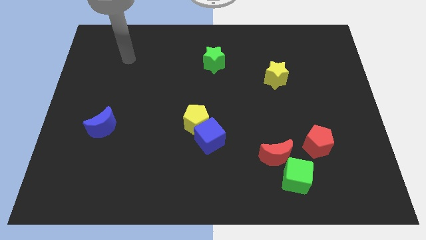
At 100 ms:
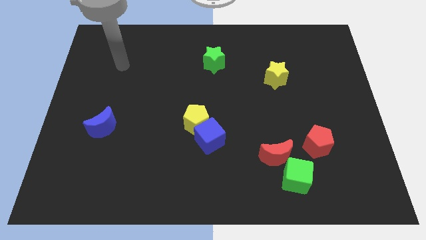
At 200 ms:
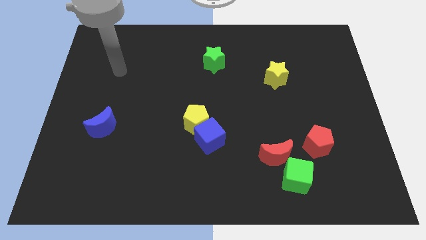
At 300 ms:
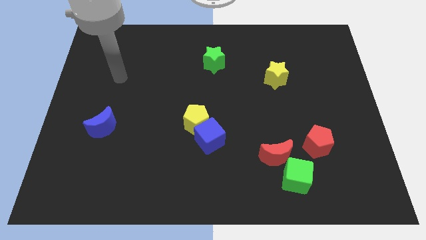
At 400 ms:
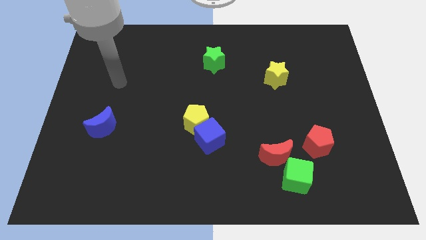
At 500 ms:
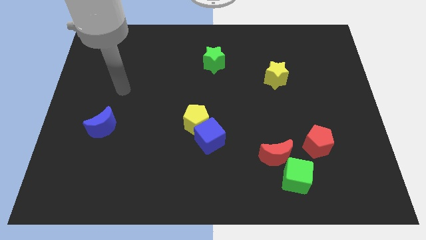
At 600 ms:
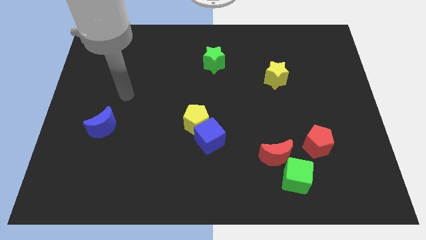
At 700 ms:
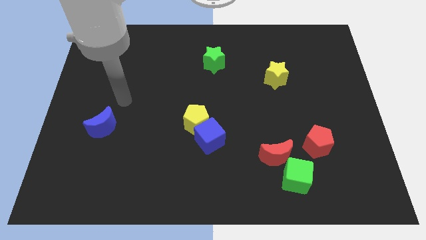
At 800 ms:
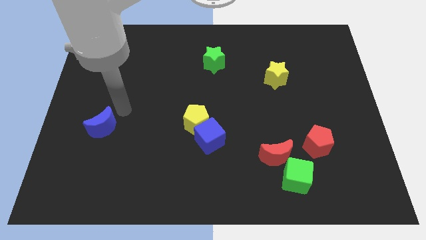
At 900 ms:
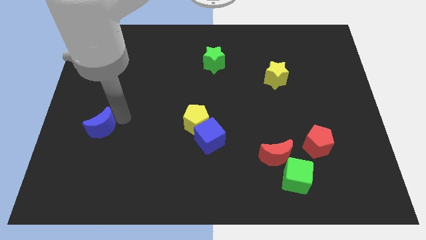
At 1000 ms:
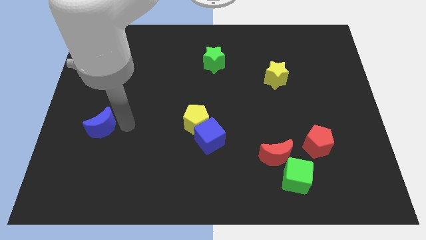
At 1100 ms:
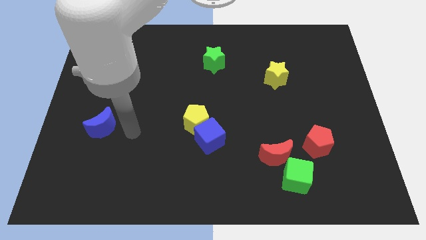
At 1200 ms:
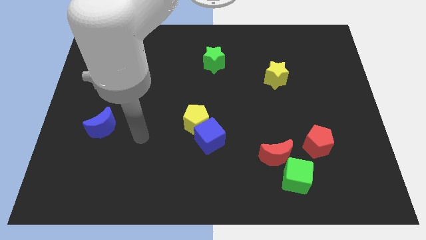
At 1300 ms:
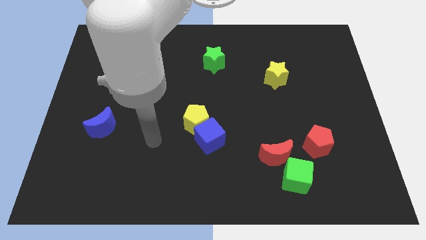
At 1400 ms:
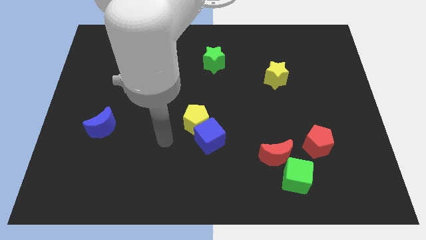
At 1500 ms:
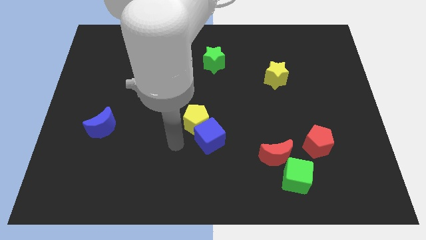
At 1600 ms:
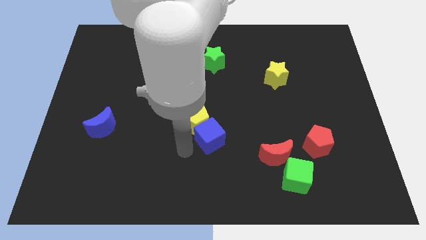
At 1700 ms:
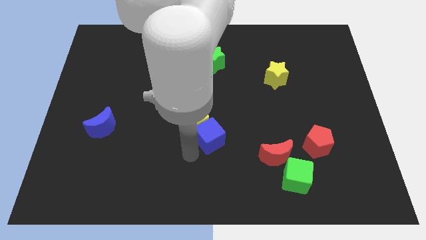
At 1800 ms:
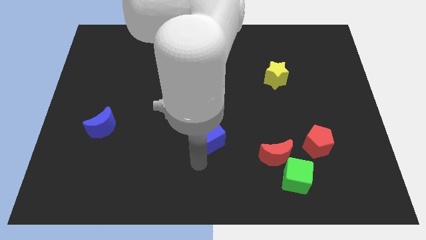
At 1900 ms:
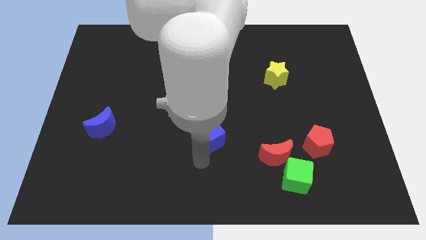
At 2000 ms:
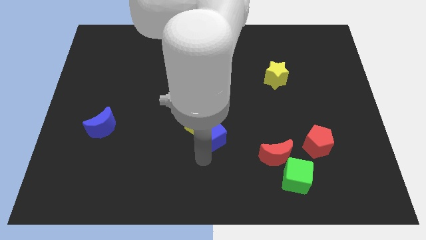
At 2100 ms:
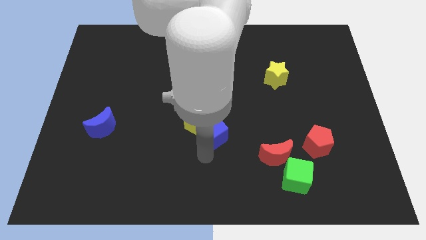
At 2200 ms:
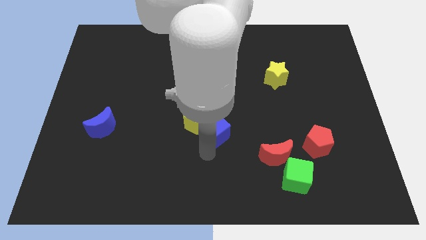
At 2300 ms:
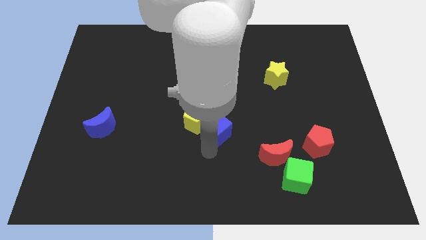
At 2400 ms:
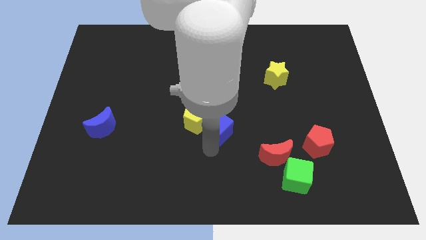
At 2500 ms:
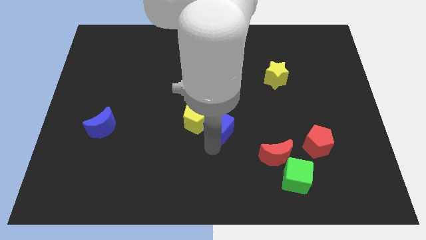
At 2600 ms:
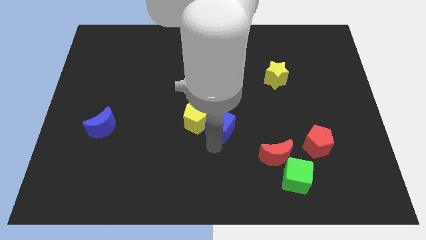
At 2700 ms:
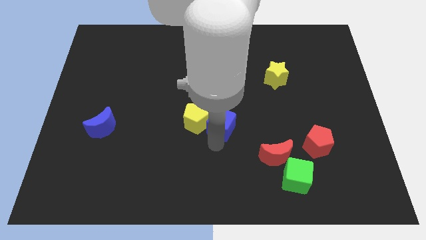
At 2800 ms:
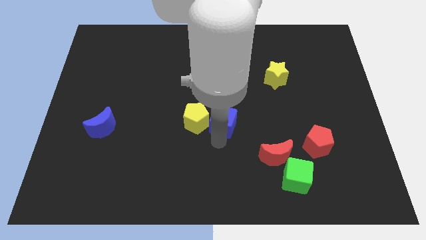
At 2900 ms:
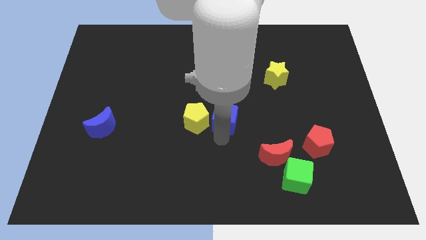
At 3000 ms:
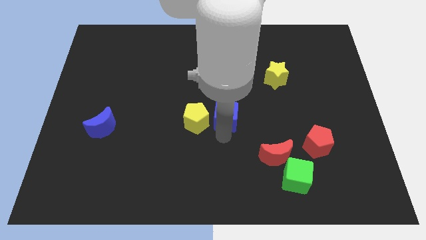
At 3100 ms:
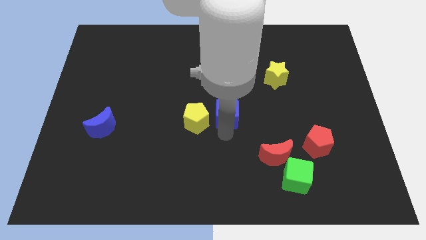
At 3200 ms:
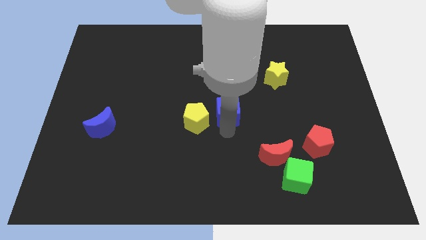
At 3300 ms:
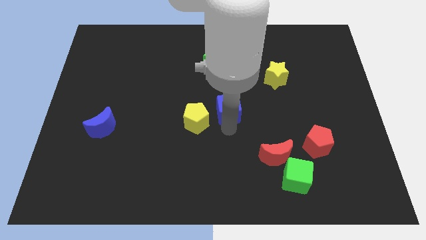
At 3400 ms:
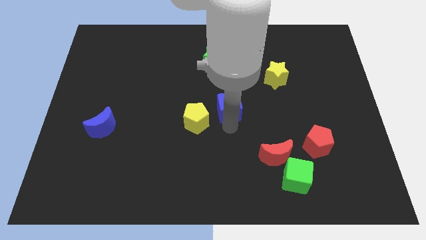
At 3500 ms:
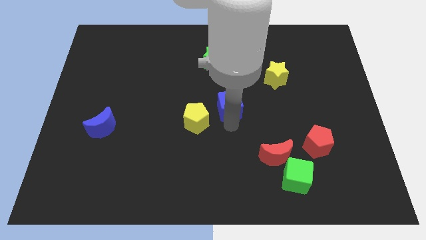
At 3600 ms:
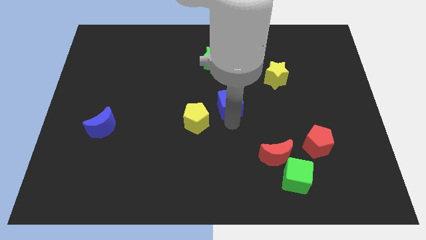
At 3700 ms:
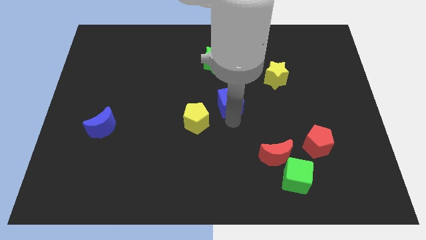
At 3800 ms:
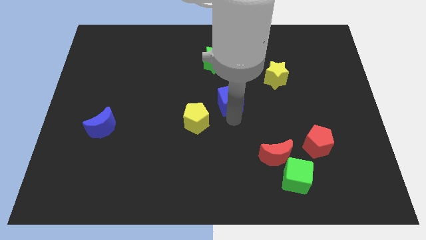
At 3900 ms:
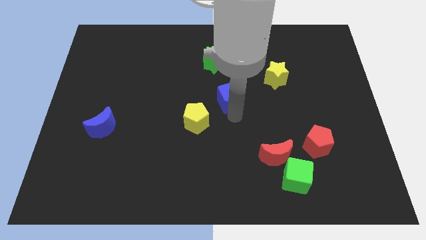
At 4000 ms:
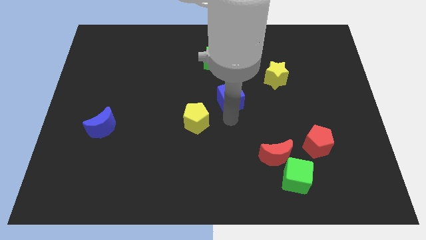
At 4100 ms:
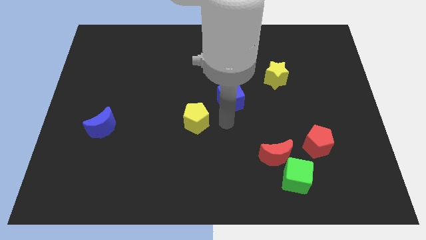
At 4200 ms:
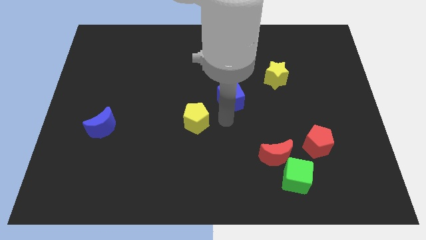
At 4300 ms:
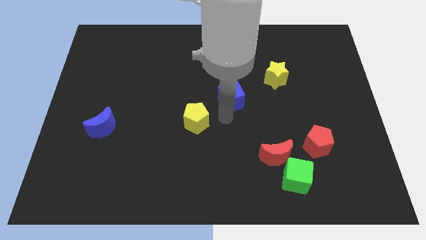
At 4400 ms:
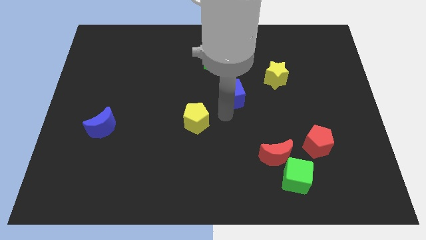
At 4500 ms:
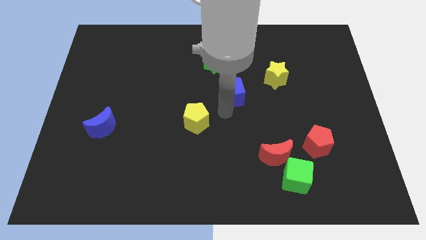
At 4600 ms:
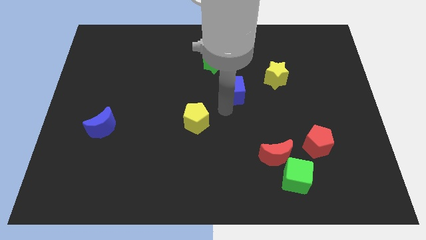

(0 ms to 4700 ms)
slide the blue cube just left of the yellow star

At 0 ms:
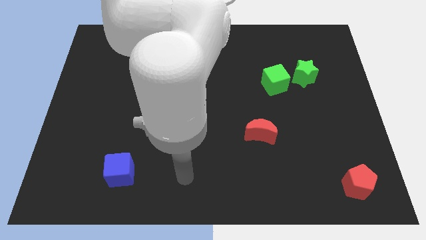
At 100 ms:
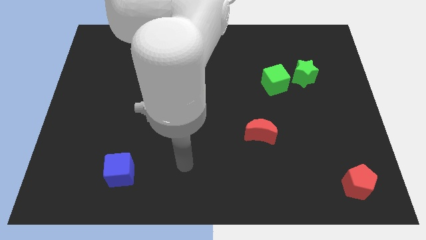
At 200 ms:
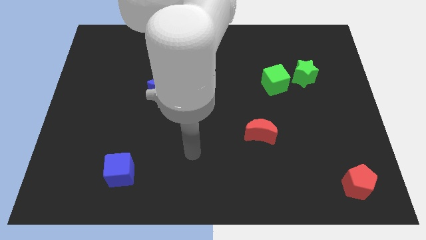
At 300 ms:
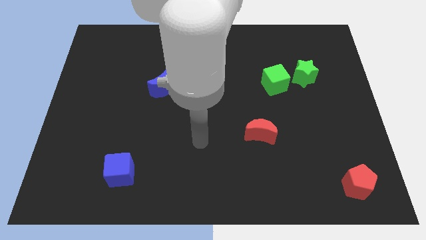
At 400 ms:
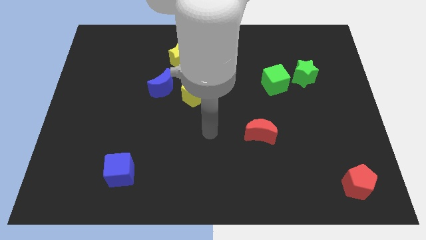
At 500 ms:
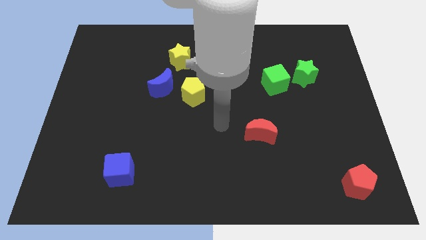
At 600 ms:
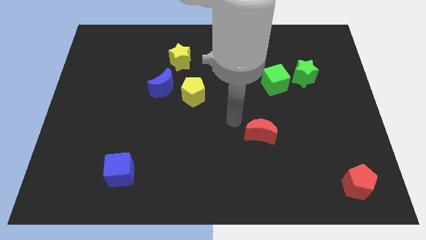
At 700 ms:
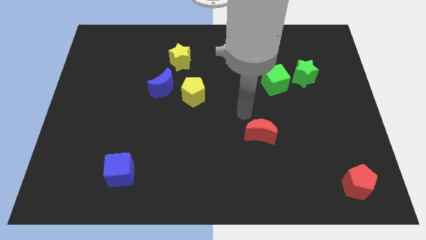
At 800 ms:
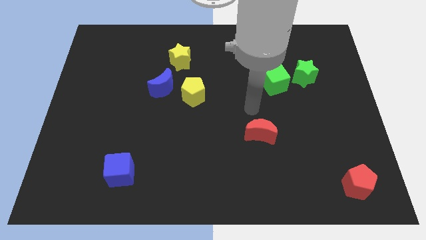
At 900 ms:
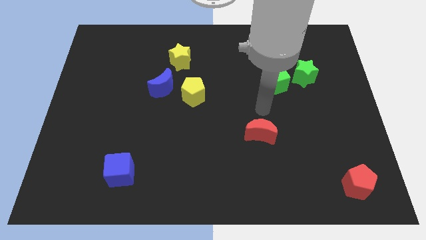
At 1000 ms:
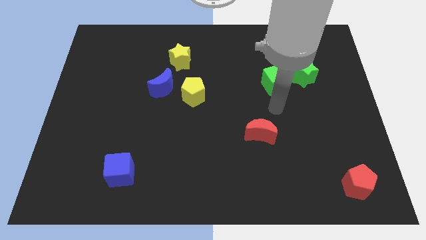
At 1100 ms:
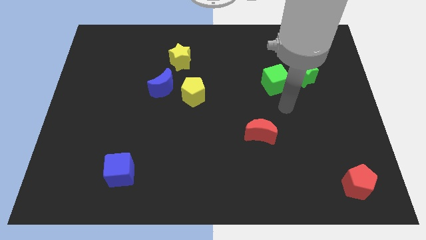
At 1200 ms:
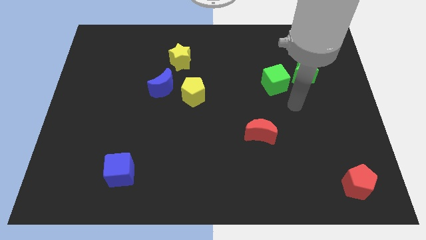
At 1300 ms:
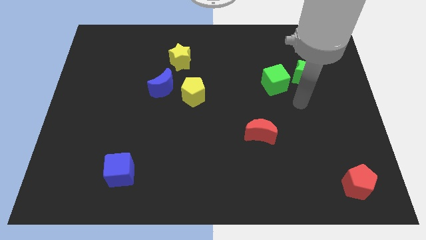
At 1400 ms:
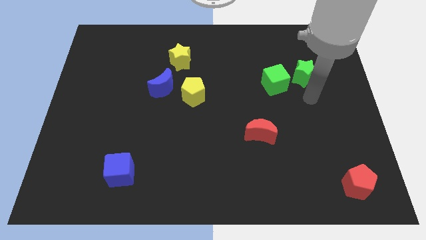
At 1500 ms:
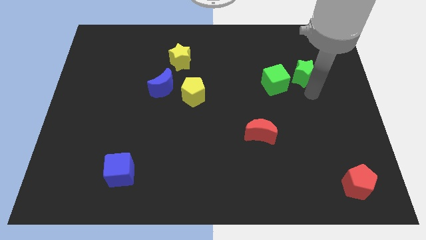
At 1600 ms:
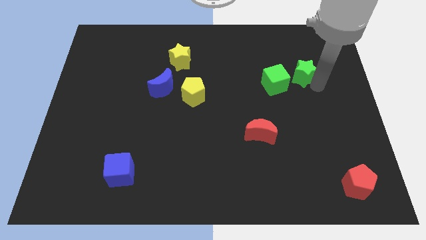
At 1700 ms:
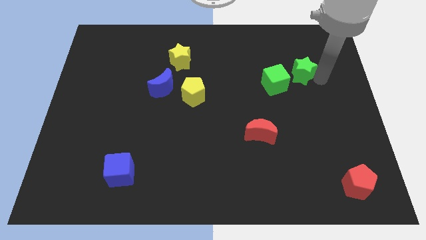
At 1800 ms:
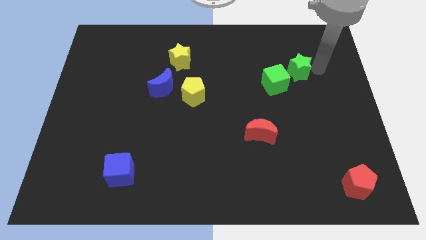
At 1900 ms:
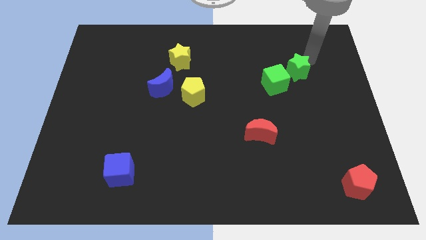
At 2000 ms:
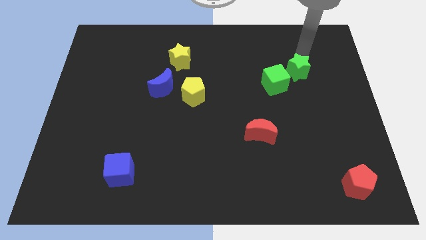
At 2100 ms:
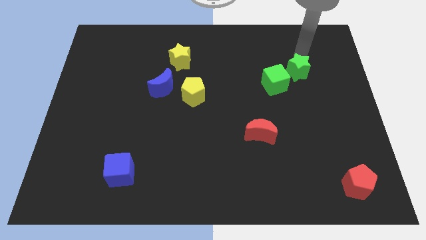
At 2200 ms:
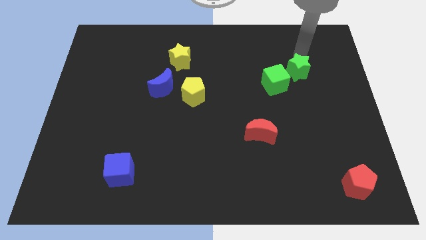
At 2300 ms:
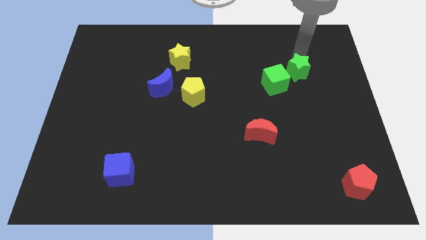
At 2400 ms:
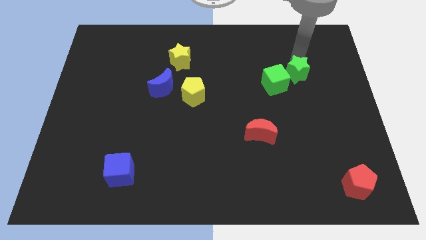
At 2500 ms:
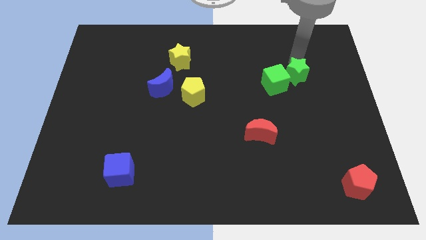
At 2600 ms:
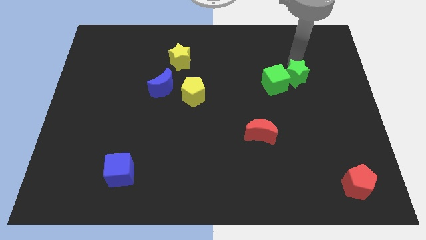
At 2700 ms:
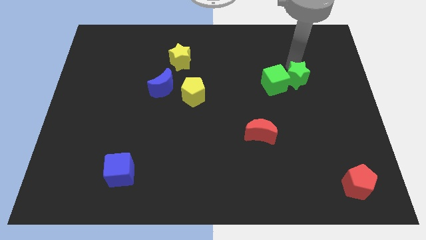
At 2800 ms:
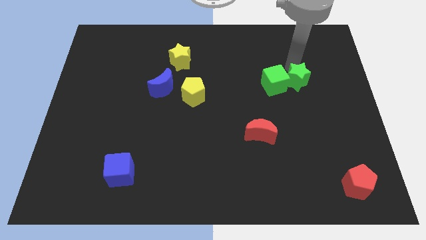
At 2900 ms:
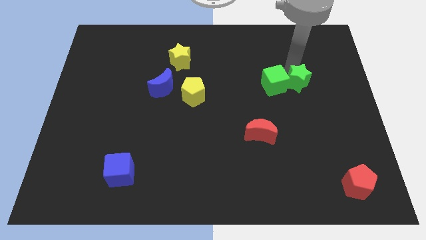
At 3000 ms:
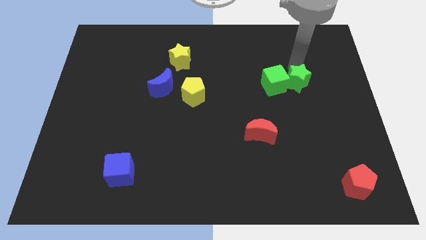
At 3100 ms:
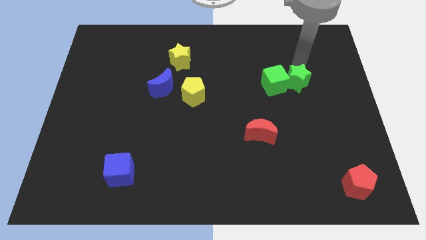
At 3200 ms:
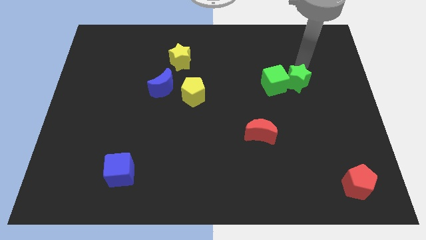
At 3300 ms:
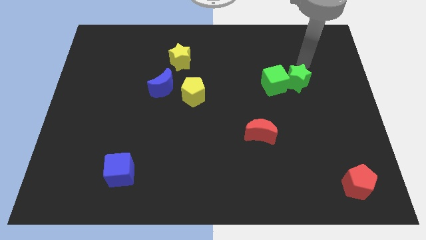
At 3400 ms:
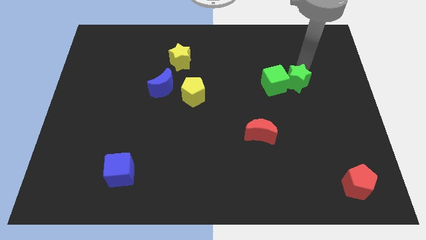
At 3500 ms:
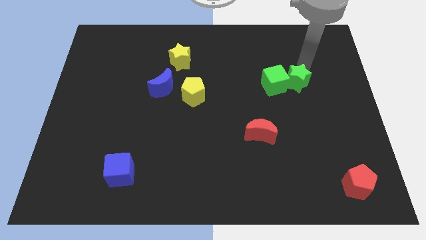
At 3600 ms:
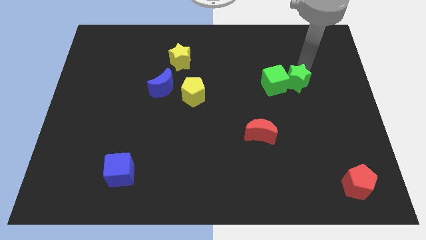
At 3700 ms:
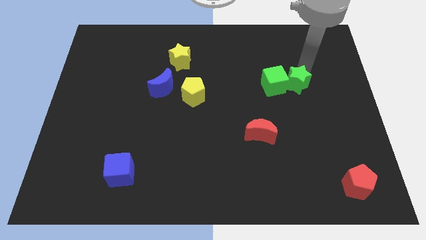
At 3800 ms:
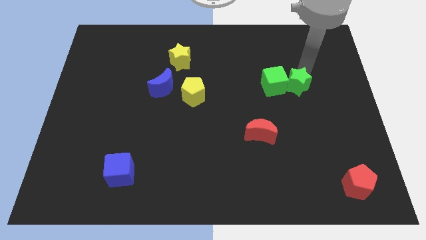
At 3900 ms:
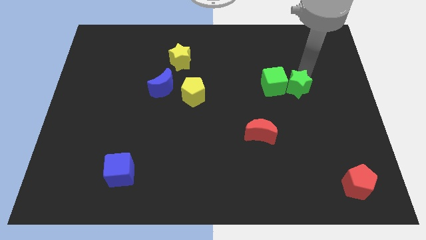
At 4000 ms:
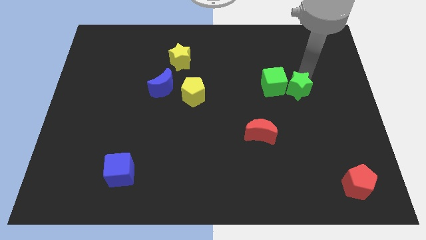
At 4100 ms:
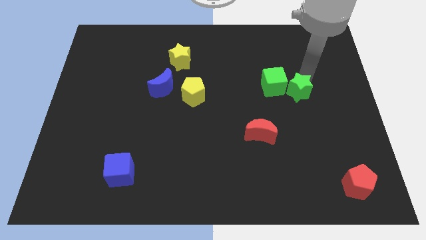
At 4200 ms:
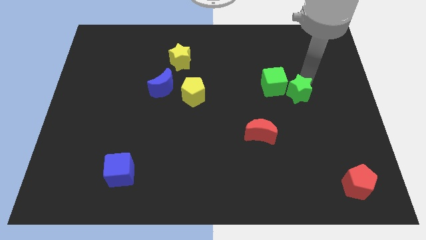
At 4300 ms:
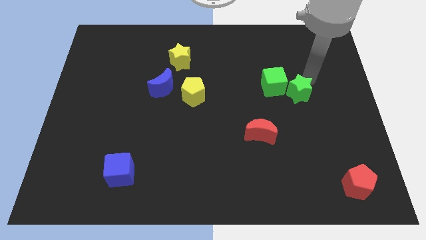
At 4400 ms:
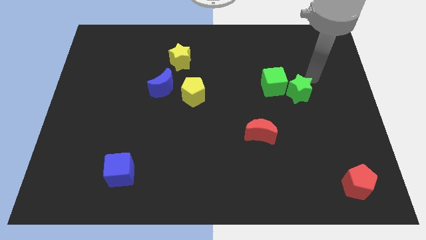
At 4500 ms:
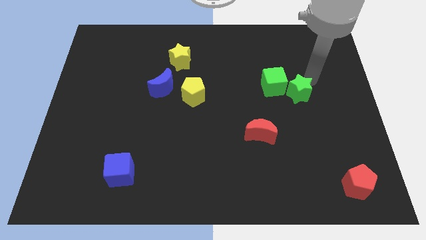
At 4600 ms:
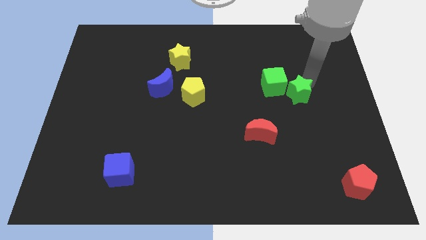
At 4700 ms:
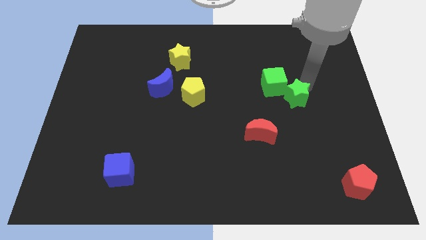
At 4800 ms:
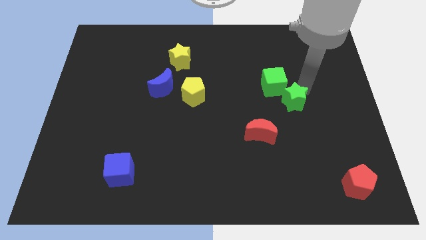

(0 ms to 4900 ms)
put the green star below the green cube
